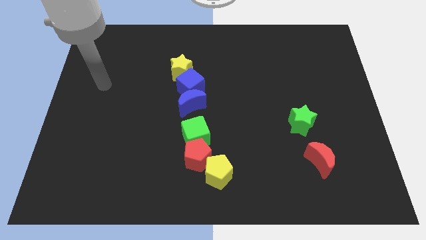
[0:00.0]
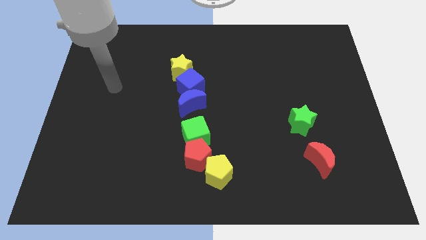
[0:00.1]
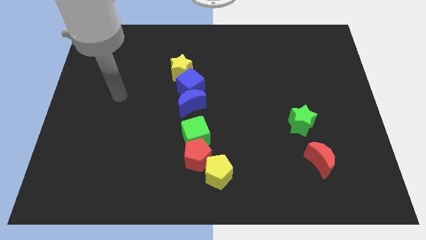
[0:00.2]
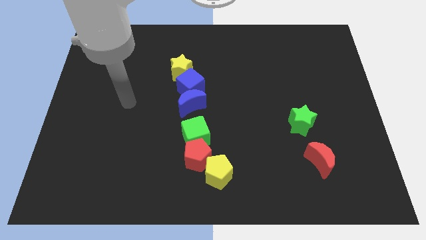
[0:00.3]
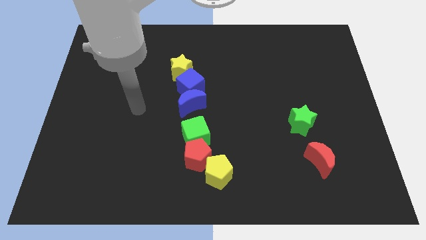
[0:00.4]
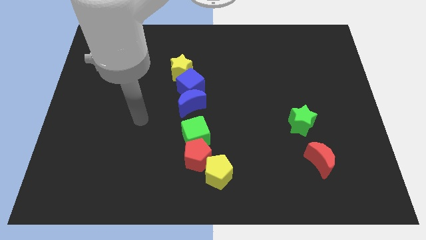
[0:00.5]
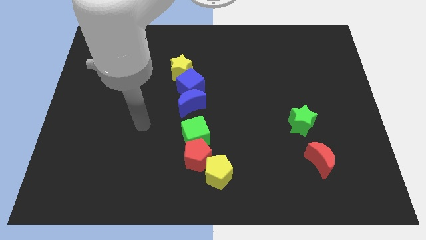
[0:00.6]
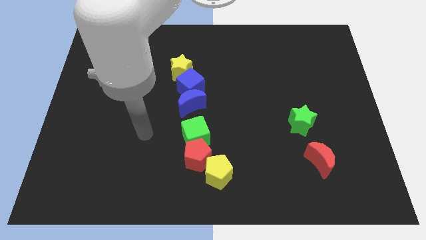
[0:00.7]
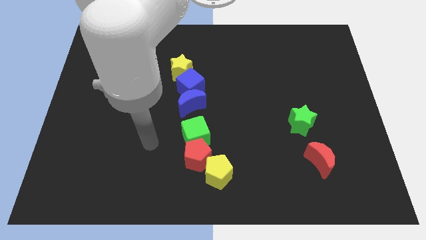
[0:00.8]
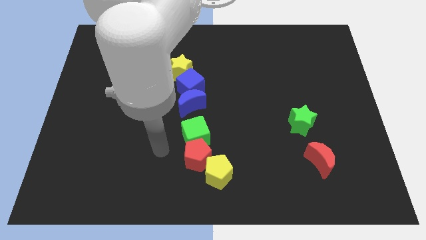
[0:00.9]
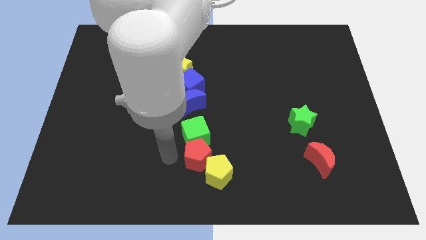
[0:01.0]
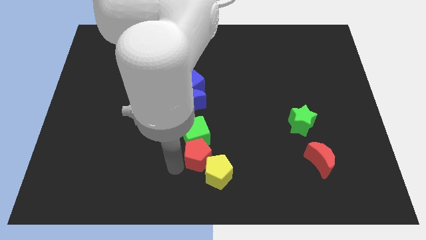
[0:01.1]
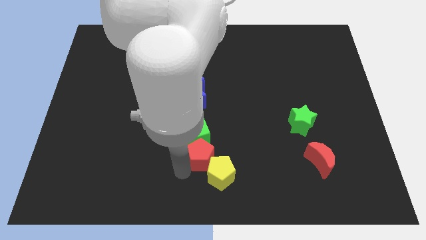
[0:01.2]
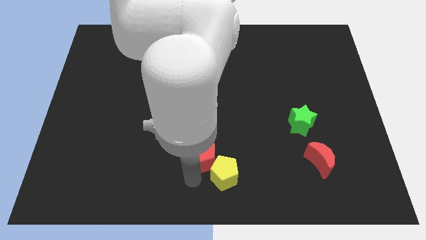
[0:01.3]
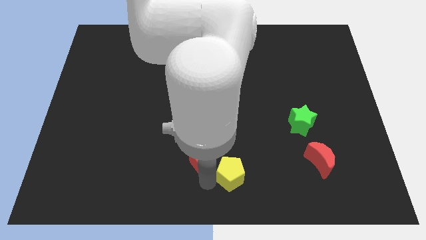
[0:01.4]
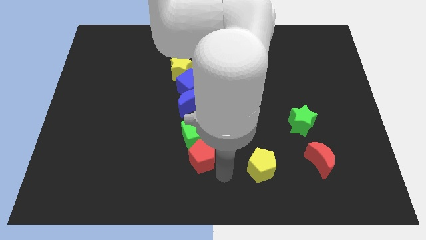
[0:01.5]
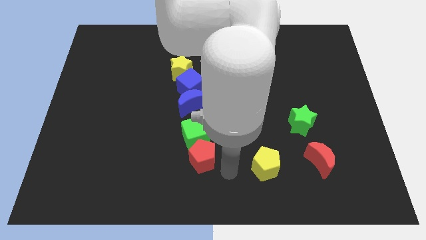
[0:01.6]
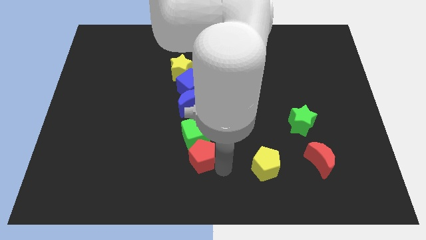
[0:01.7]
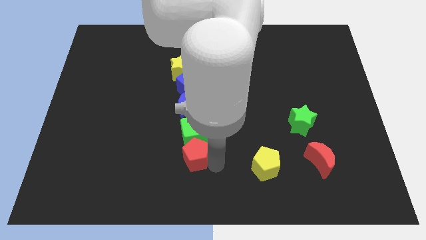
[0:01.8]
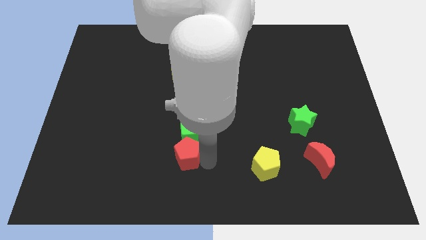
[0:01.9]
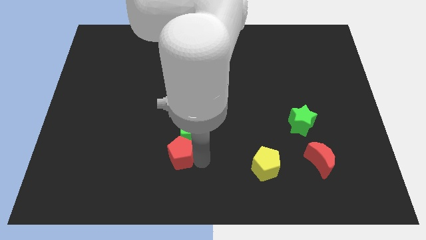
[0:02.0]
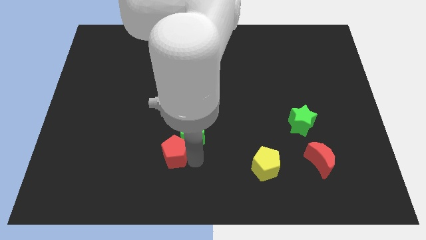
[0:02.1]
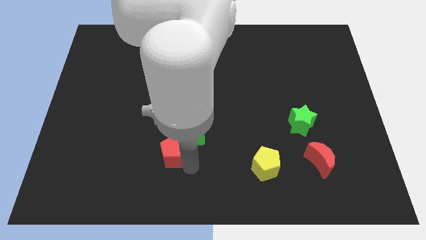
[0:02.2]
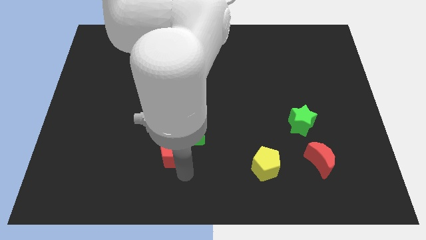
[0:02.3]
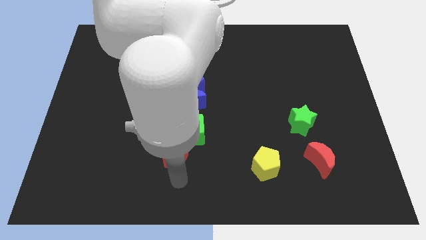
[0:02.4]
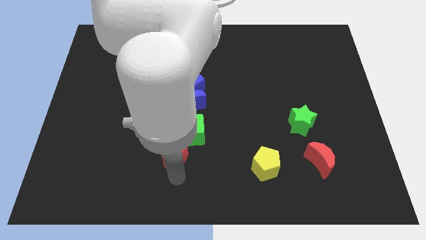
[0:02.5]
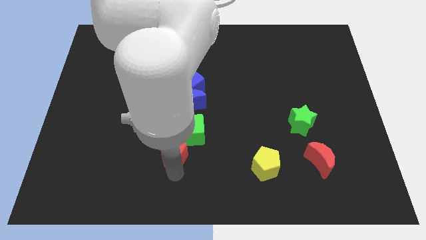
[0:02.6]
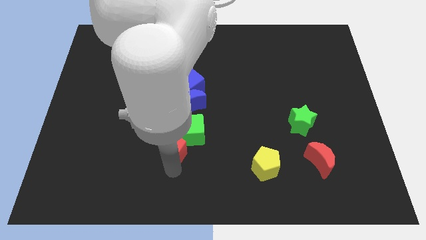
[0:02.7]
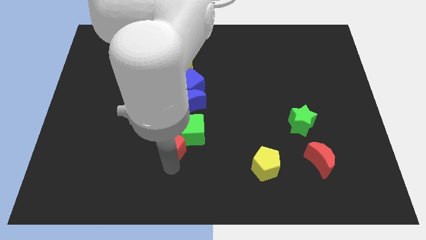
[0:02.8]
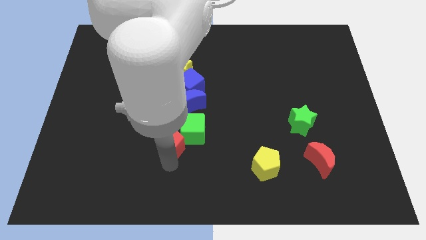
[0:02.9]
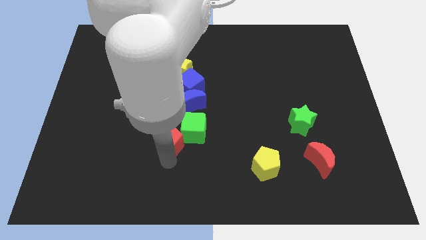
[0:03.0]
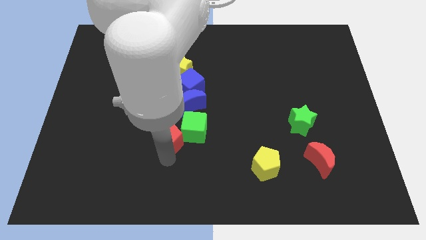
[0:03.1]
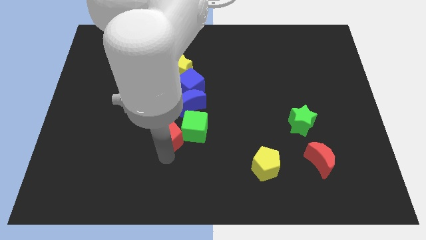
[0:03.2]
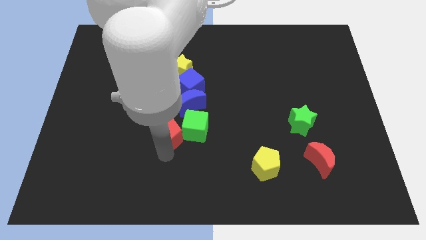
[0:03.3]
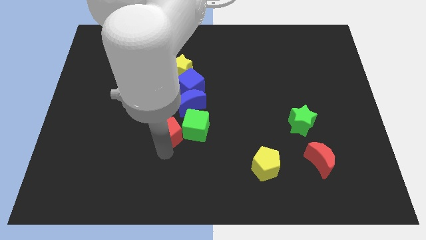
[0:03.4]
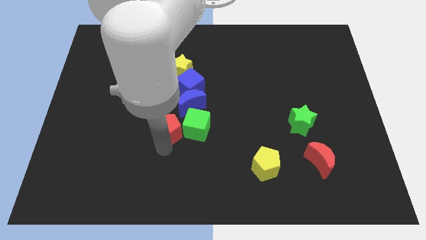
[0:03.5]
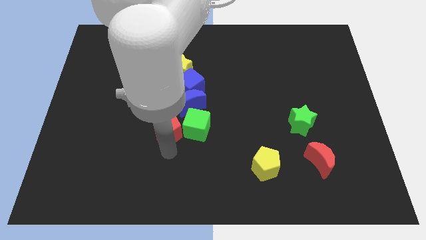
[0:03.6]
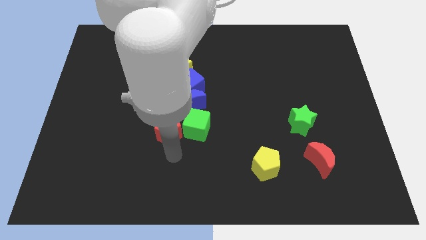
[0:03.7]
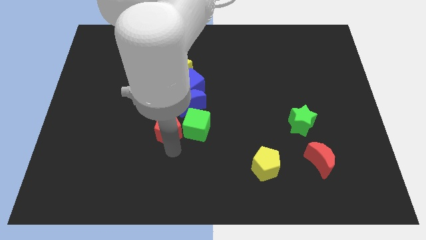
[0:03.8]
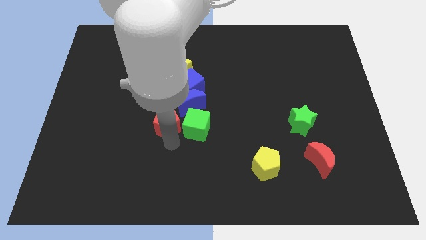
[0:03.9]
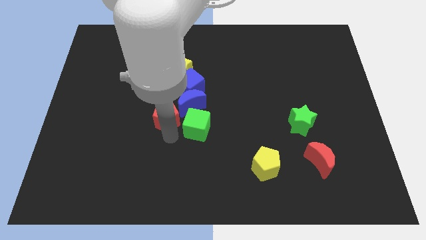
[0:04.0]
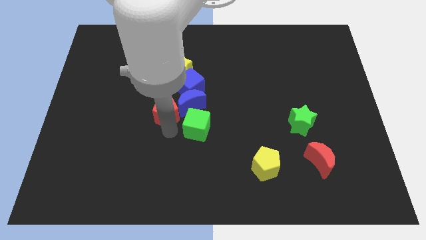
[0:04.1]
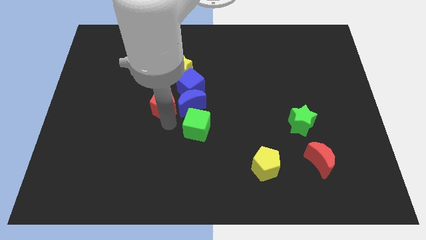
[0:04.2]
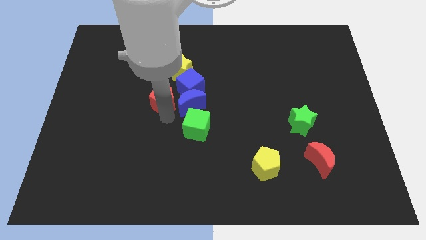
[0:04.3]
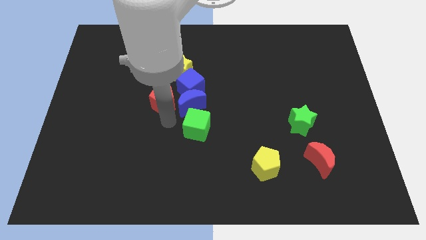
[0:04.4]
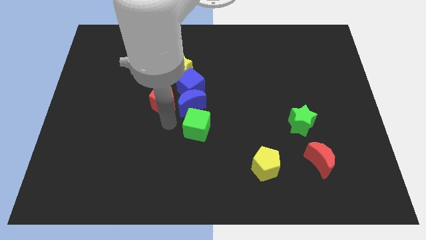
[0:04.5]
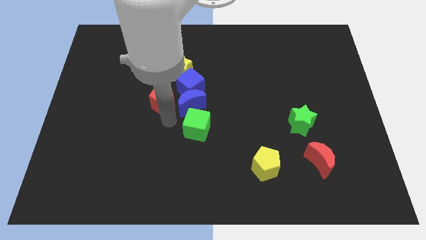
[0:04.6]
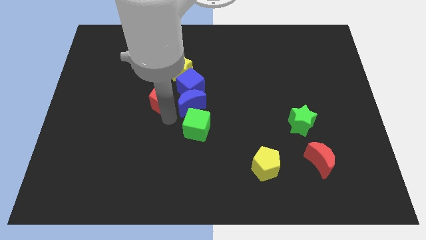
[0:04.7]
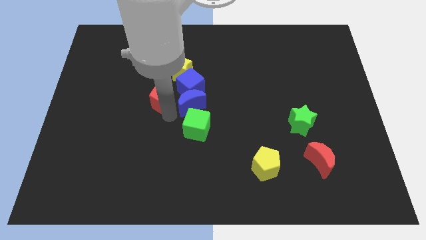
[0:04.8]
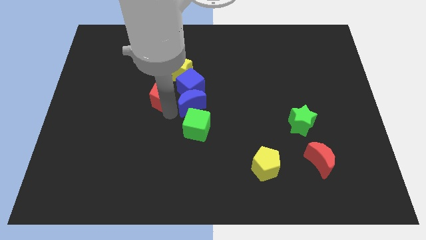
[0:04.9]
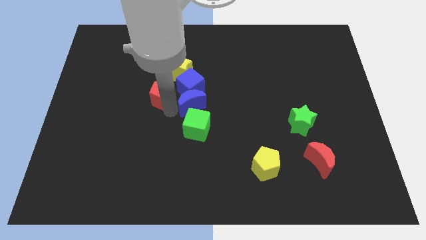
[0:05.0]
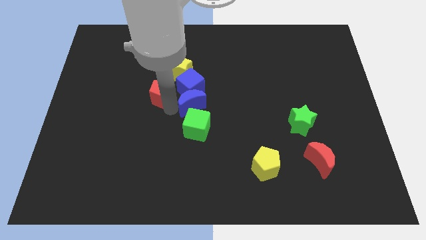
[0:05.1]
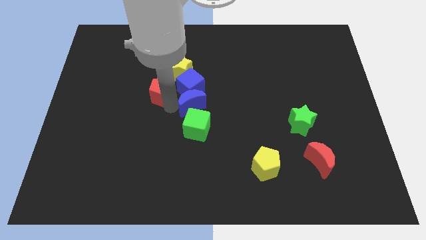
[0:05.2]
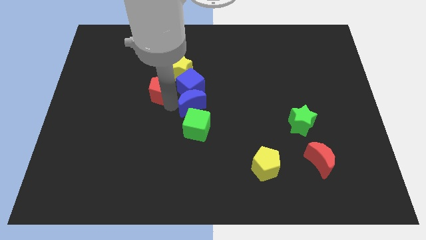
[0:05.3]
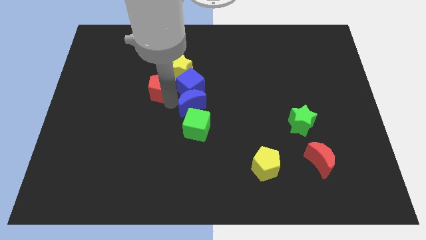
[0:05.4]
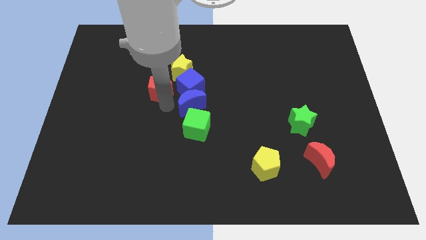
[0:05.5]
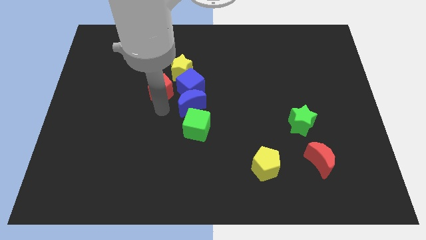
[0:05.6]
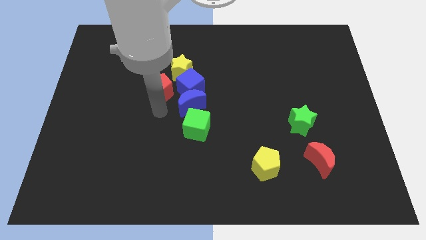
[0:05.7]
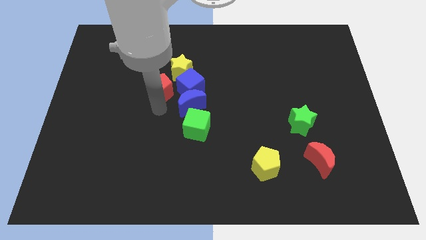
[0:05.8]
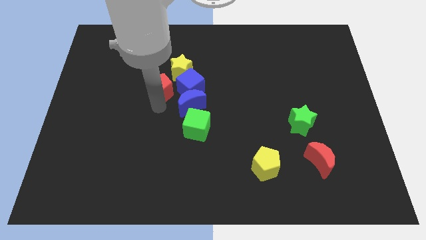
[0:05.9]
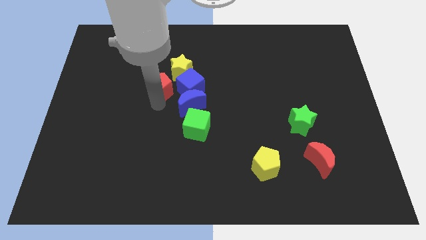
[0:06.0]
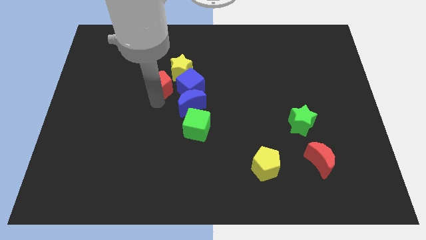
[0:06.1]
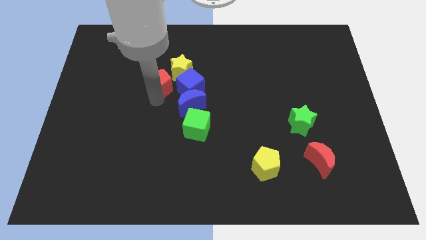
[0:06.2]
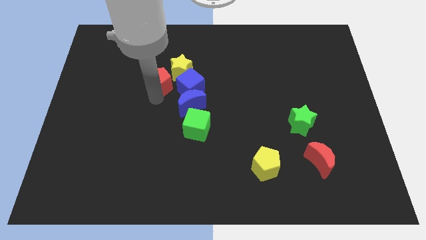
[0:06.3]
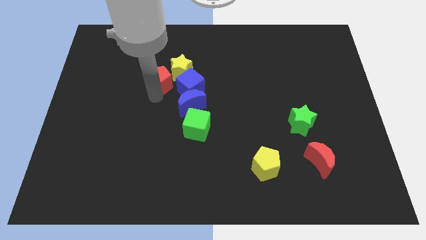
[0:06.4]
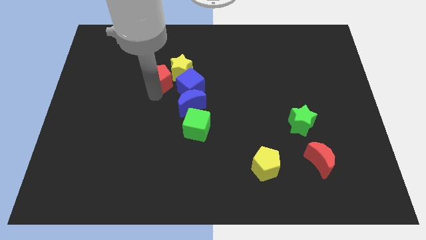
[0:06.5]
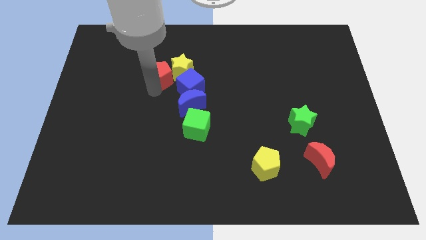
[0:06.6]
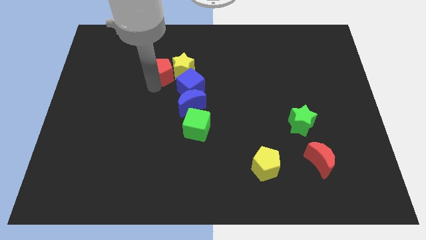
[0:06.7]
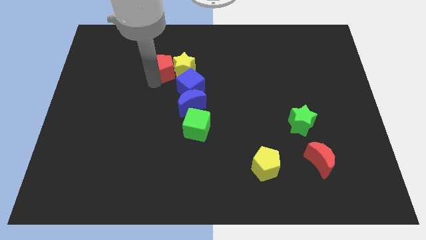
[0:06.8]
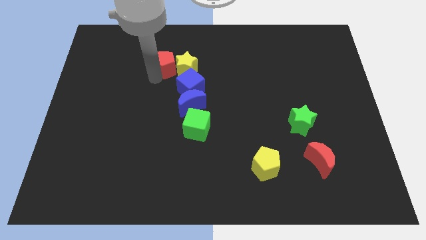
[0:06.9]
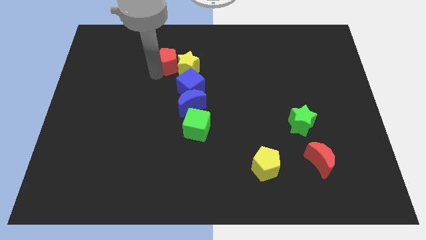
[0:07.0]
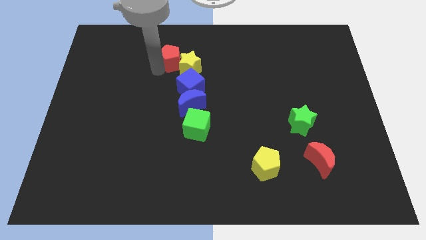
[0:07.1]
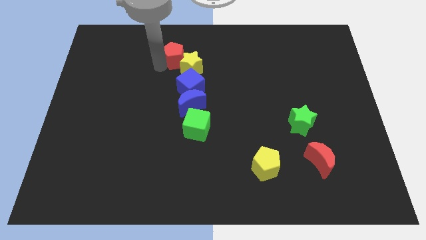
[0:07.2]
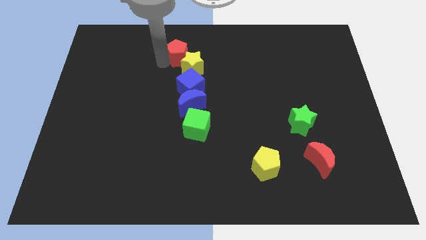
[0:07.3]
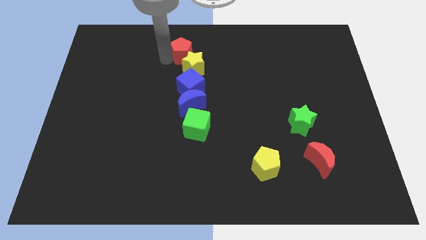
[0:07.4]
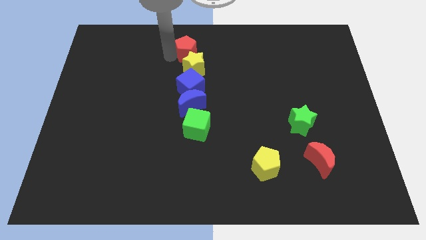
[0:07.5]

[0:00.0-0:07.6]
put the red pentagon to the towards your base

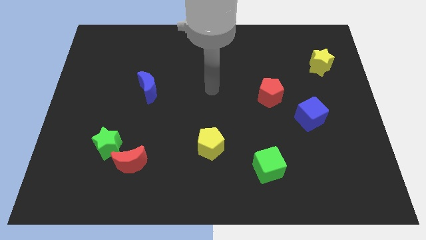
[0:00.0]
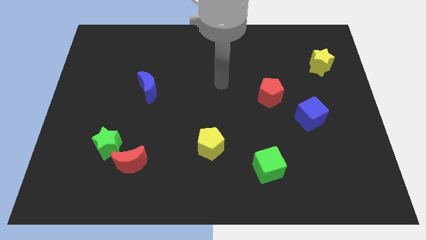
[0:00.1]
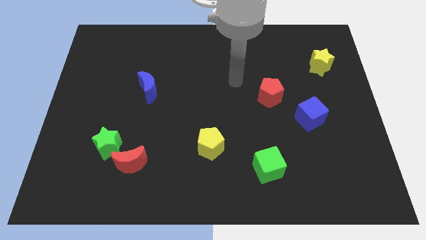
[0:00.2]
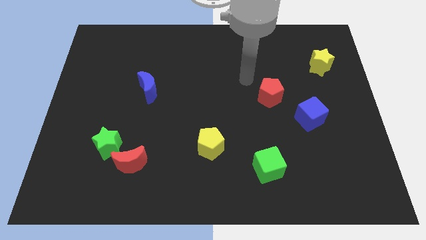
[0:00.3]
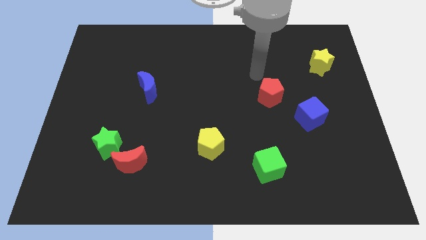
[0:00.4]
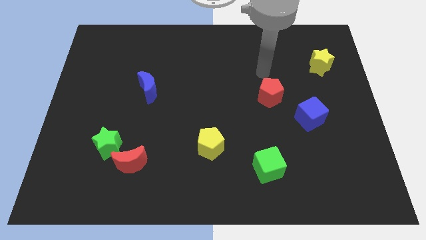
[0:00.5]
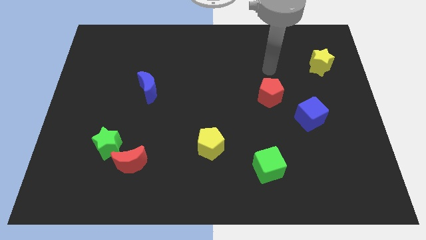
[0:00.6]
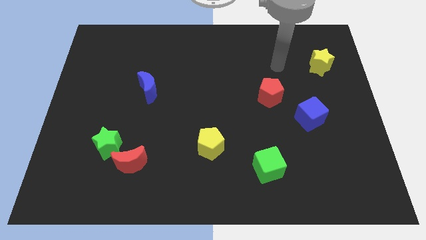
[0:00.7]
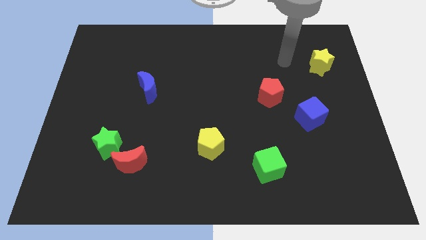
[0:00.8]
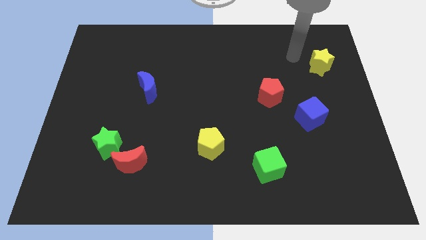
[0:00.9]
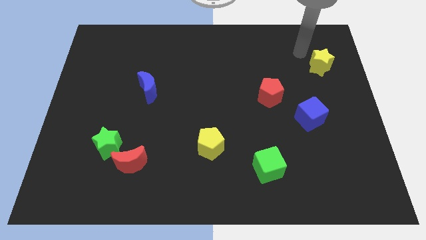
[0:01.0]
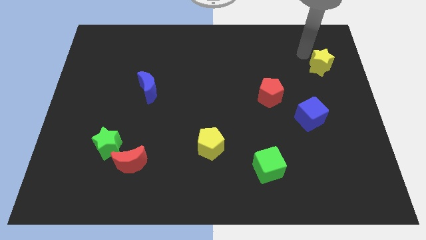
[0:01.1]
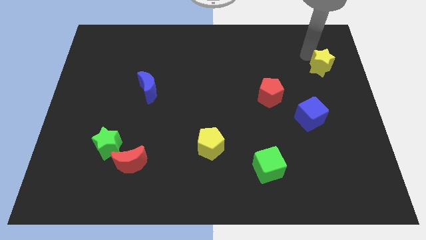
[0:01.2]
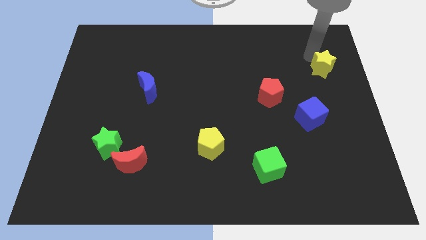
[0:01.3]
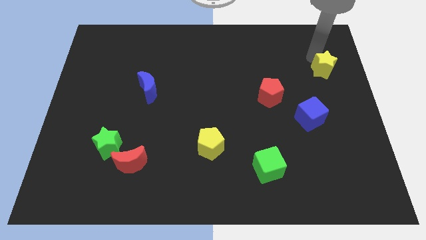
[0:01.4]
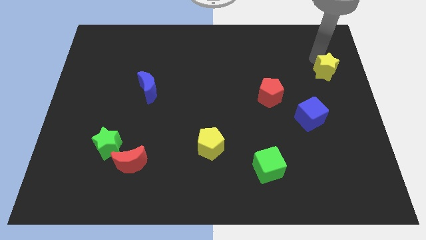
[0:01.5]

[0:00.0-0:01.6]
move the yellow star to the right side of the board
